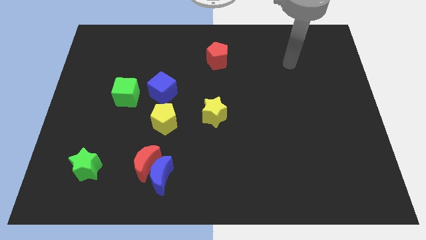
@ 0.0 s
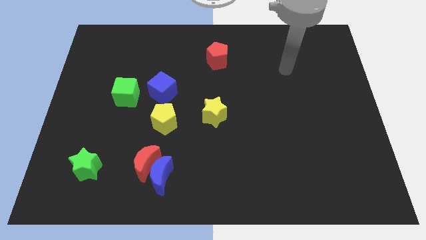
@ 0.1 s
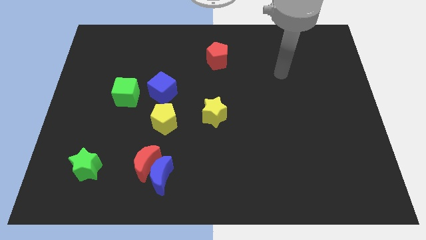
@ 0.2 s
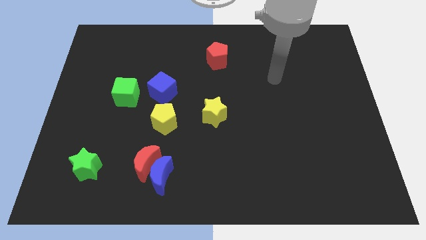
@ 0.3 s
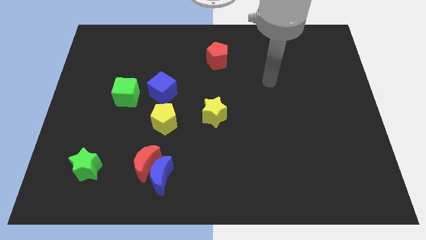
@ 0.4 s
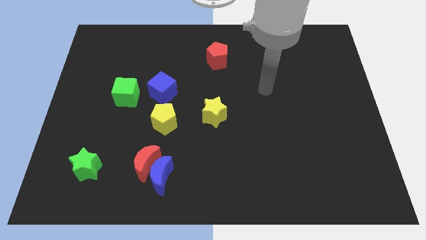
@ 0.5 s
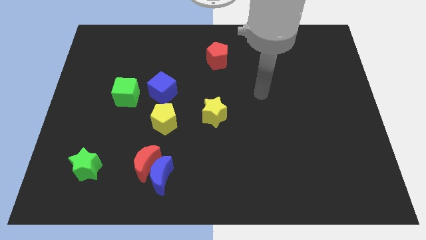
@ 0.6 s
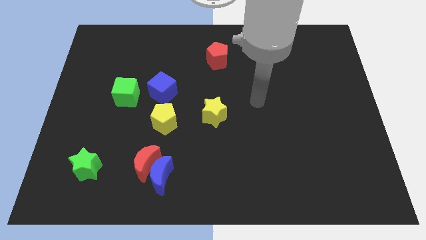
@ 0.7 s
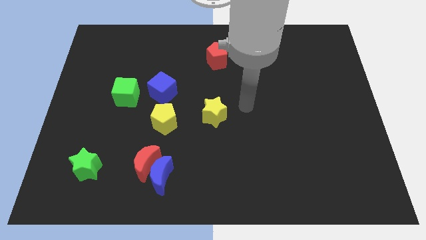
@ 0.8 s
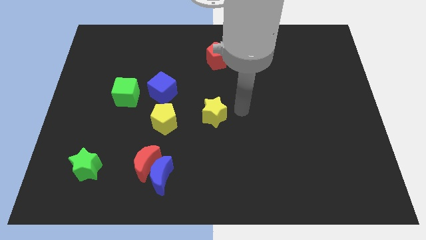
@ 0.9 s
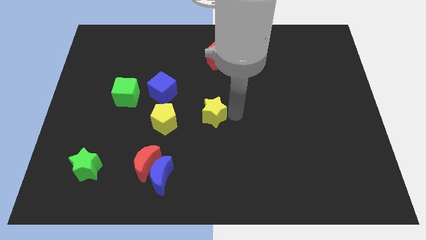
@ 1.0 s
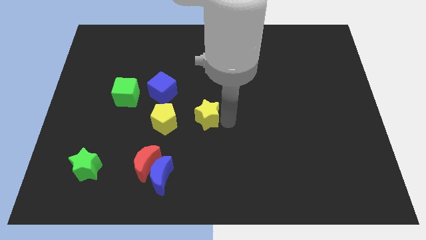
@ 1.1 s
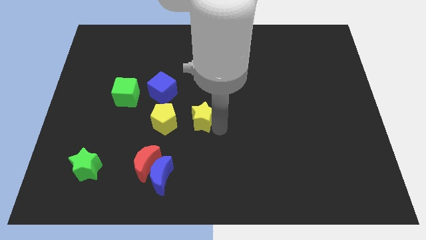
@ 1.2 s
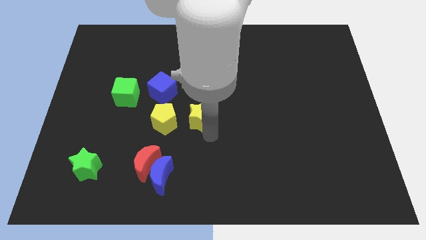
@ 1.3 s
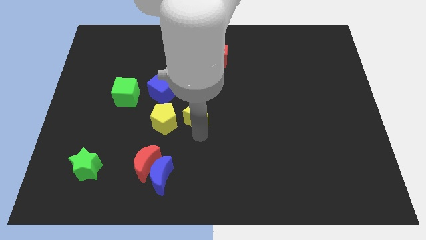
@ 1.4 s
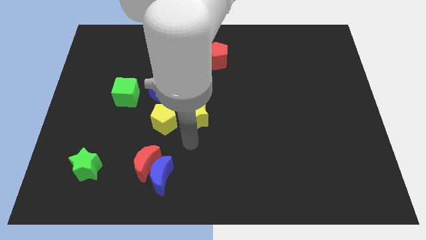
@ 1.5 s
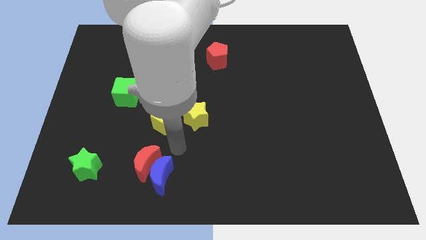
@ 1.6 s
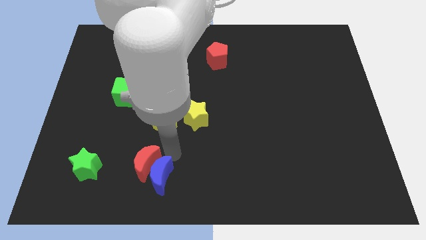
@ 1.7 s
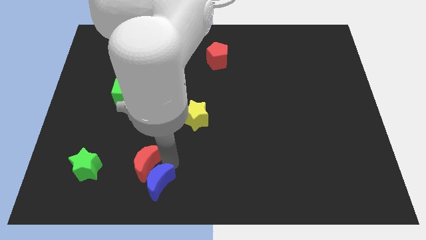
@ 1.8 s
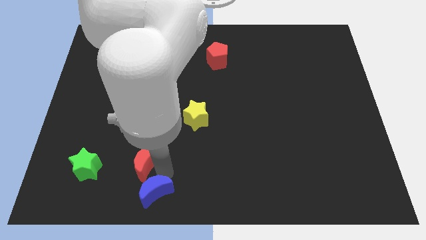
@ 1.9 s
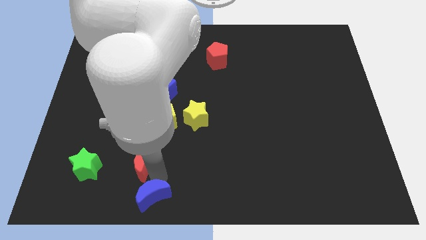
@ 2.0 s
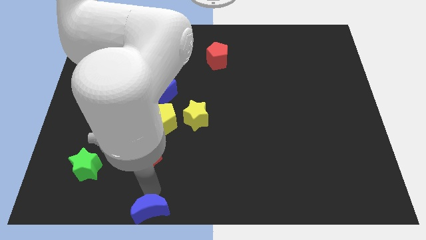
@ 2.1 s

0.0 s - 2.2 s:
separate the red moon from the blue moon

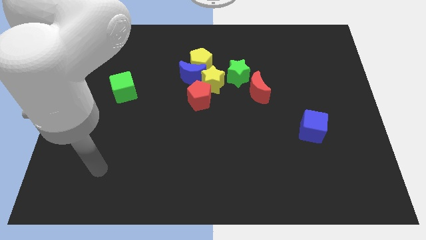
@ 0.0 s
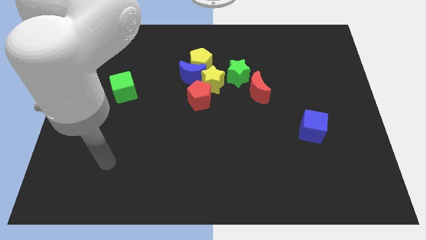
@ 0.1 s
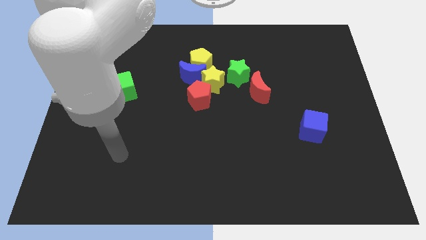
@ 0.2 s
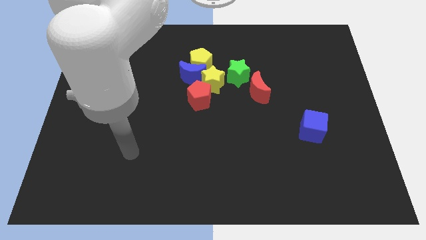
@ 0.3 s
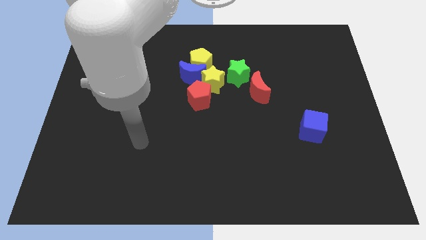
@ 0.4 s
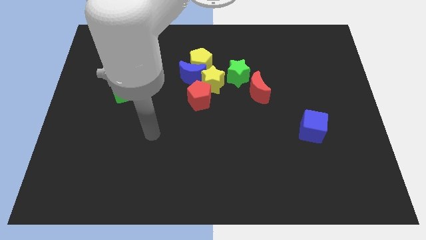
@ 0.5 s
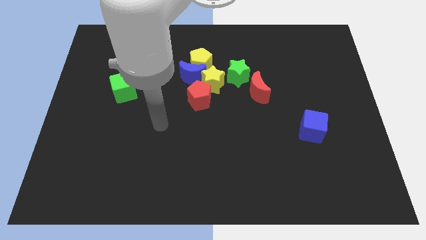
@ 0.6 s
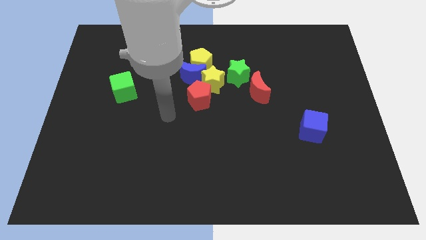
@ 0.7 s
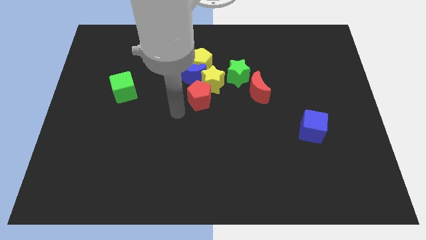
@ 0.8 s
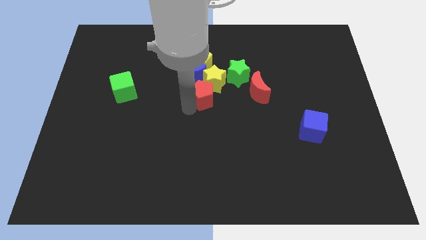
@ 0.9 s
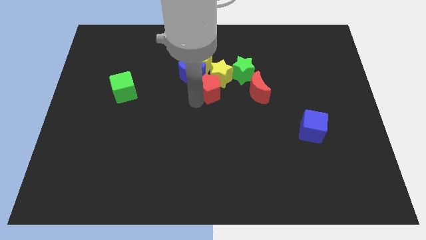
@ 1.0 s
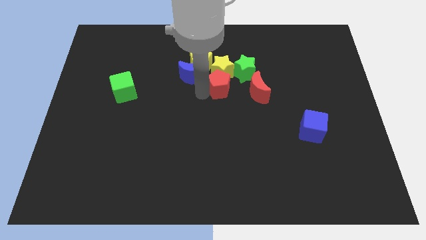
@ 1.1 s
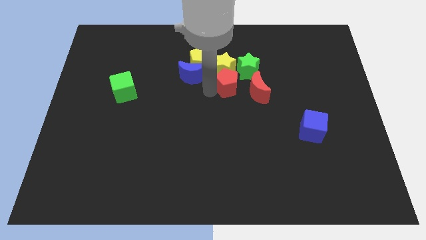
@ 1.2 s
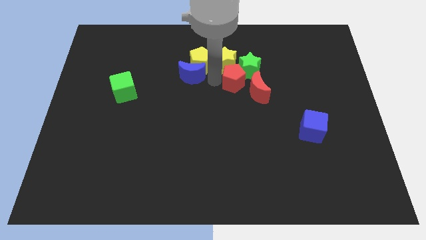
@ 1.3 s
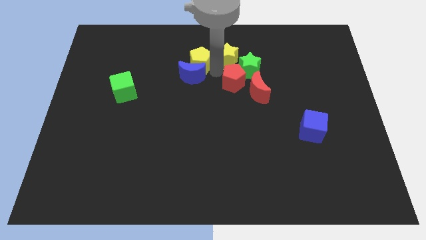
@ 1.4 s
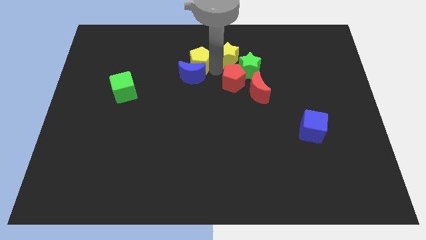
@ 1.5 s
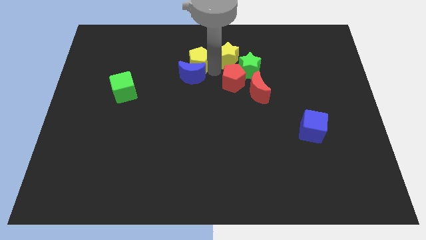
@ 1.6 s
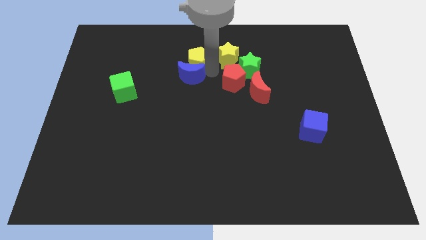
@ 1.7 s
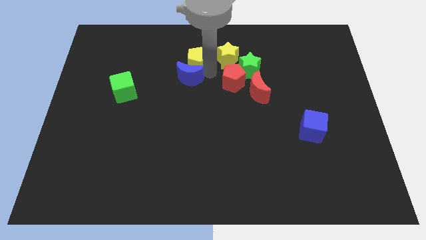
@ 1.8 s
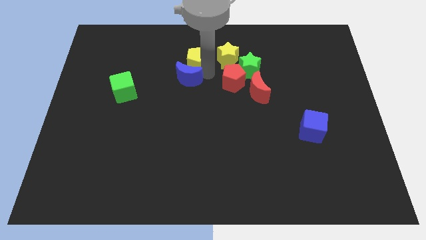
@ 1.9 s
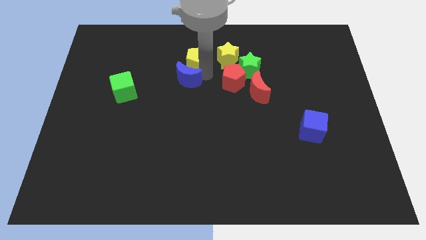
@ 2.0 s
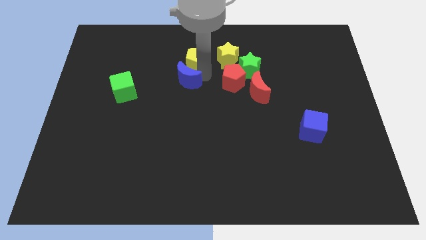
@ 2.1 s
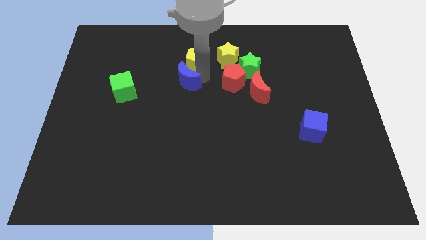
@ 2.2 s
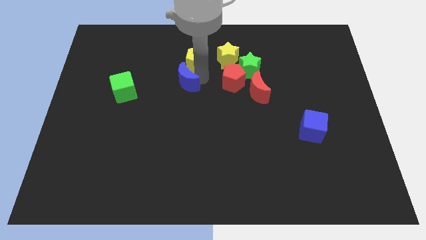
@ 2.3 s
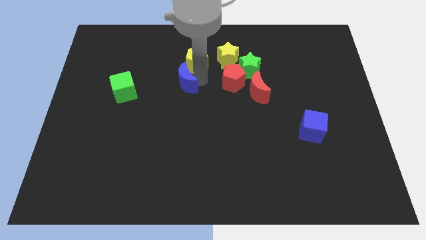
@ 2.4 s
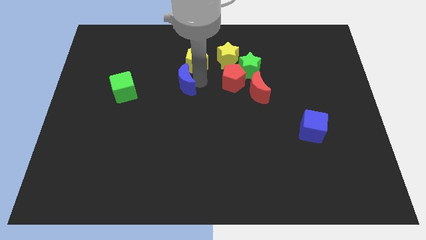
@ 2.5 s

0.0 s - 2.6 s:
separate the blue moon from the clump

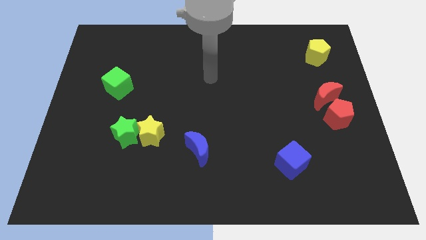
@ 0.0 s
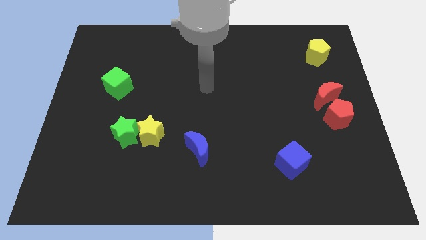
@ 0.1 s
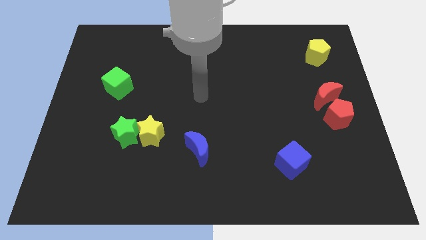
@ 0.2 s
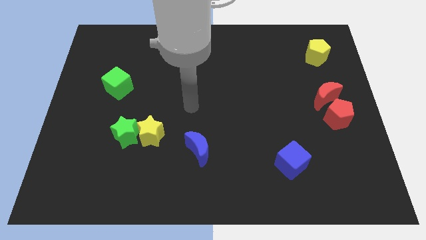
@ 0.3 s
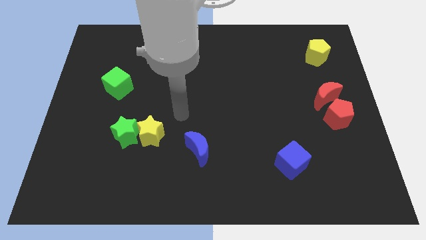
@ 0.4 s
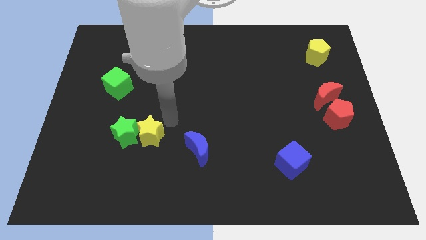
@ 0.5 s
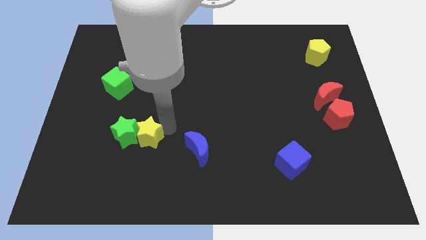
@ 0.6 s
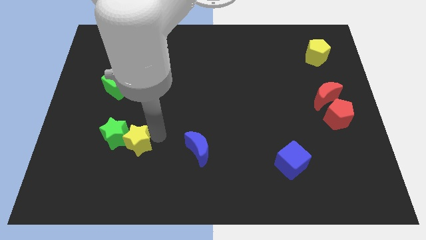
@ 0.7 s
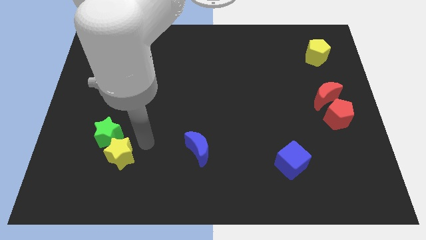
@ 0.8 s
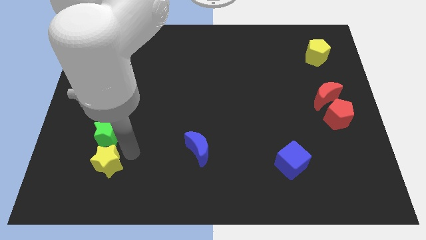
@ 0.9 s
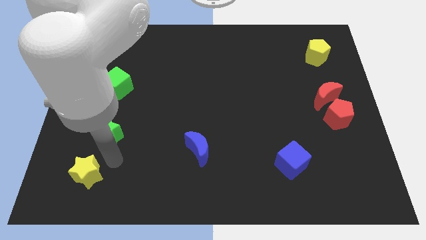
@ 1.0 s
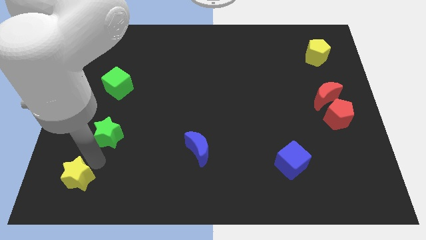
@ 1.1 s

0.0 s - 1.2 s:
move the green star away from the yellow star

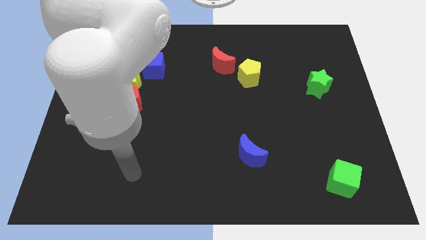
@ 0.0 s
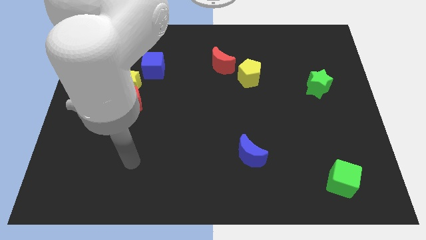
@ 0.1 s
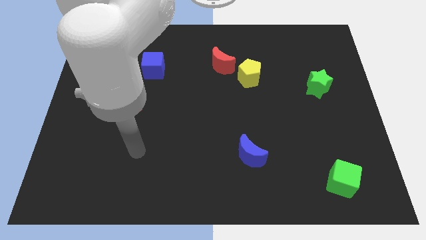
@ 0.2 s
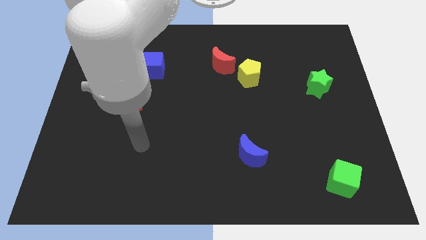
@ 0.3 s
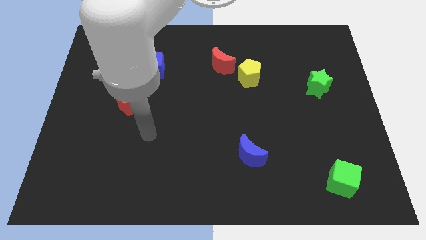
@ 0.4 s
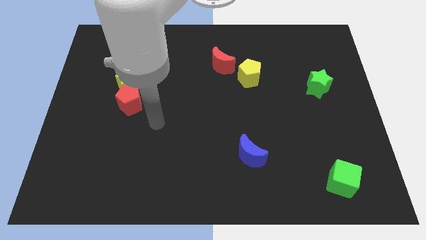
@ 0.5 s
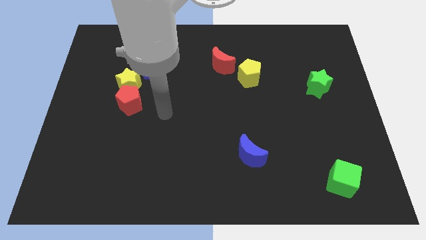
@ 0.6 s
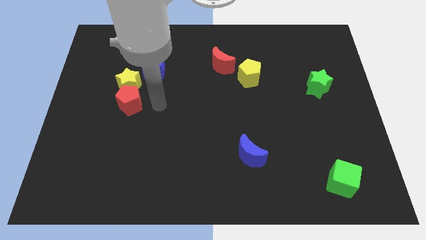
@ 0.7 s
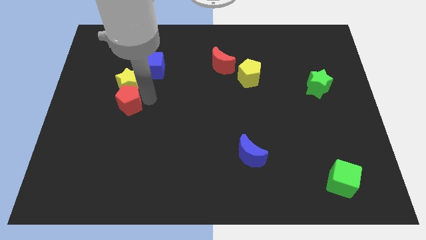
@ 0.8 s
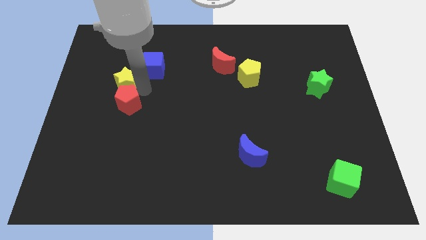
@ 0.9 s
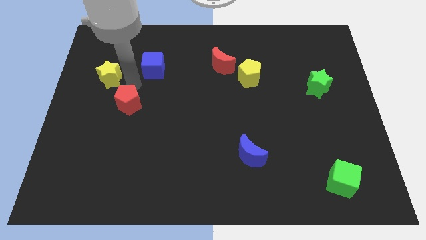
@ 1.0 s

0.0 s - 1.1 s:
separate the red pentagon from the yellow star

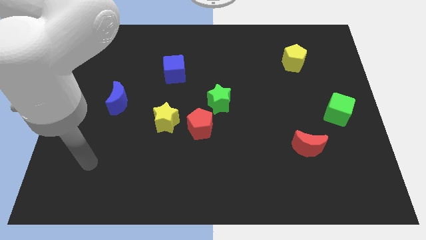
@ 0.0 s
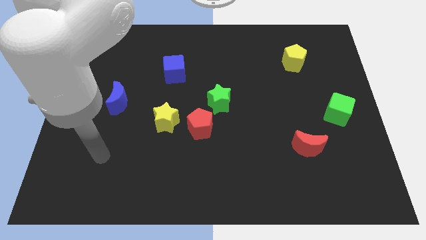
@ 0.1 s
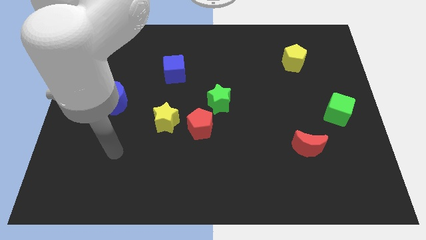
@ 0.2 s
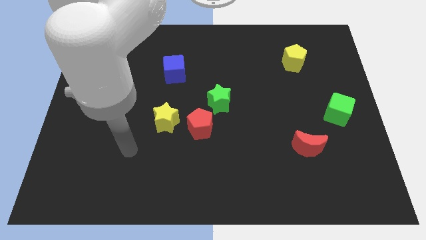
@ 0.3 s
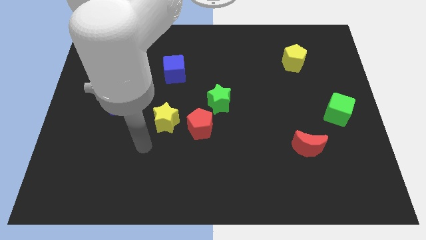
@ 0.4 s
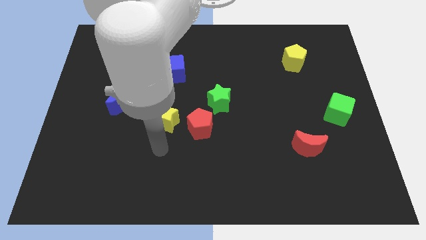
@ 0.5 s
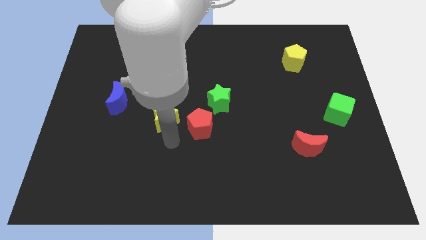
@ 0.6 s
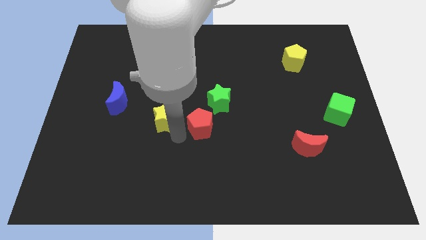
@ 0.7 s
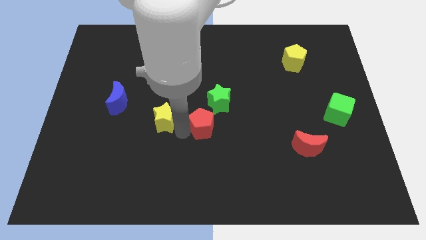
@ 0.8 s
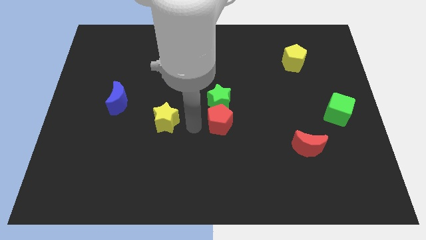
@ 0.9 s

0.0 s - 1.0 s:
move the yellow star away from the red pentagon

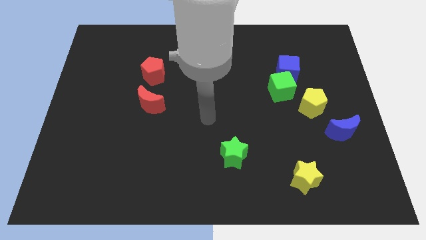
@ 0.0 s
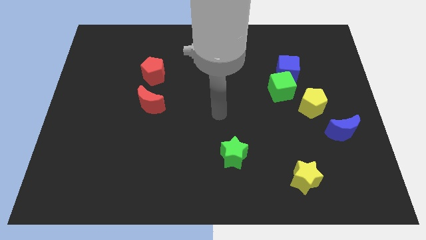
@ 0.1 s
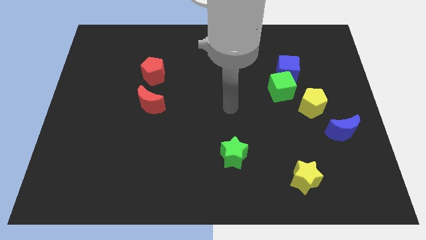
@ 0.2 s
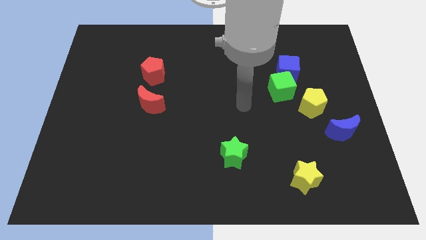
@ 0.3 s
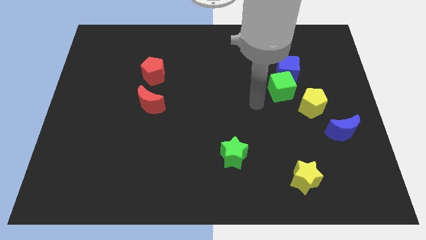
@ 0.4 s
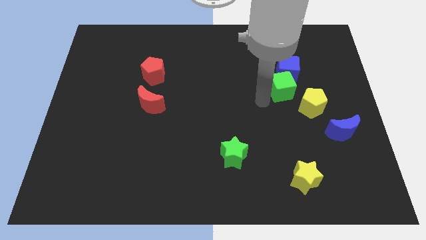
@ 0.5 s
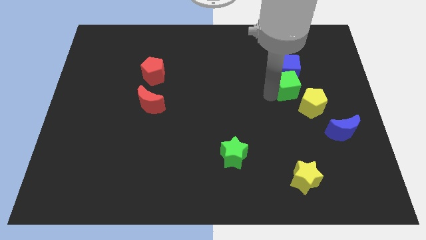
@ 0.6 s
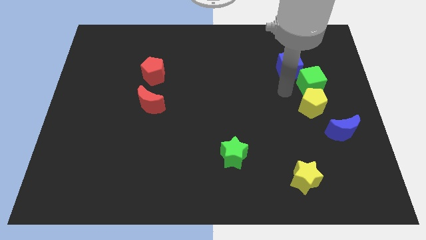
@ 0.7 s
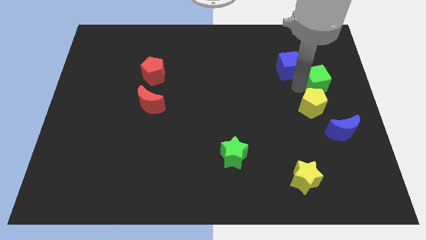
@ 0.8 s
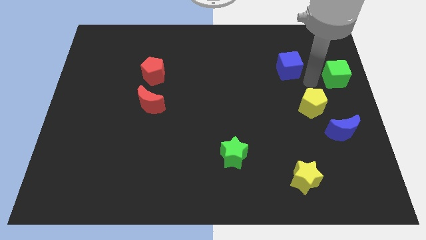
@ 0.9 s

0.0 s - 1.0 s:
move the blue cube away from the green cube

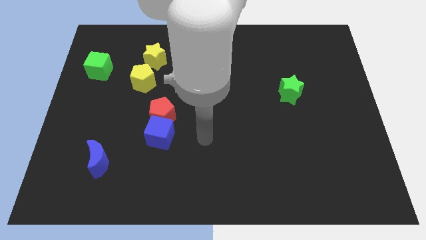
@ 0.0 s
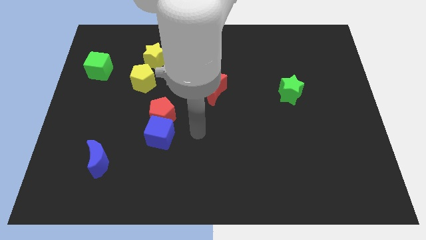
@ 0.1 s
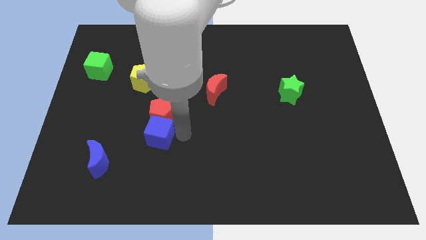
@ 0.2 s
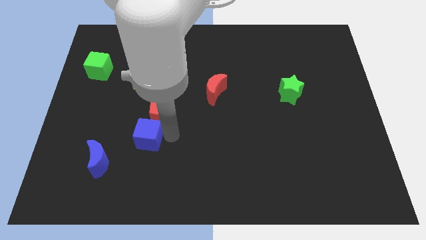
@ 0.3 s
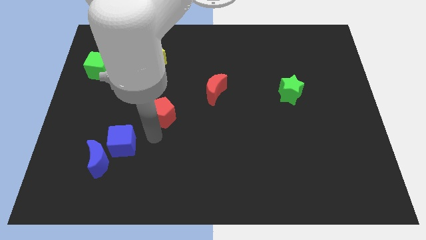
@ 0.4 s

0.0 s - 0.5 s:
separate the red pentagon from the blue cube
